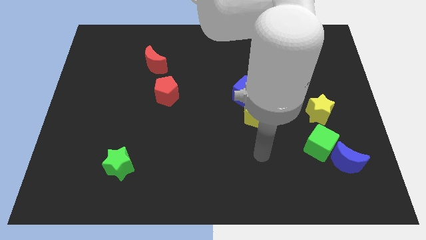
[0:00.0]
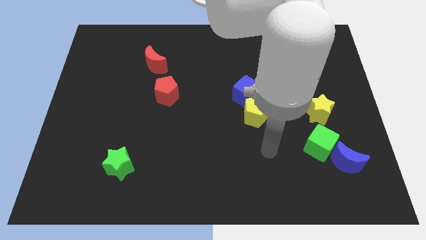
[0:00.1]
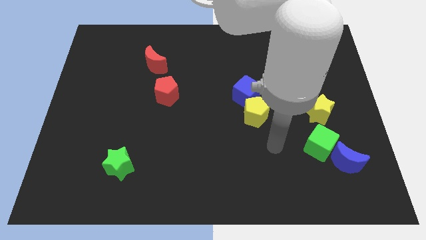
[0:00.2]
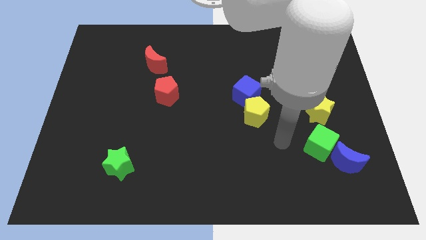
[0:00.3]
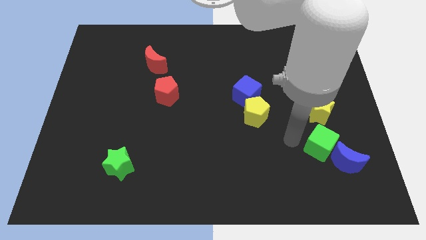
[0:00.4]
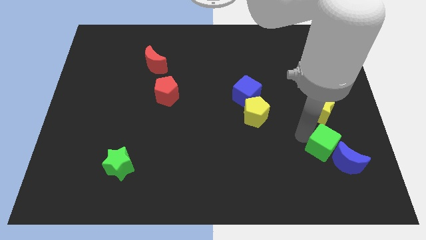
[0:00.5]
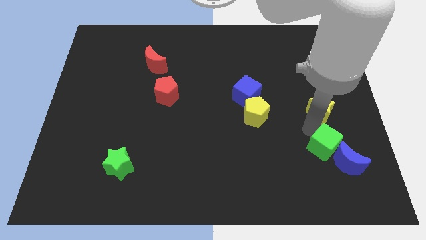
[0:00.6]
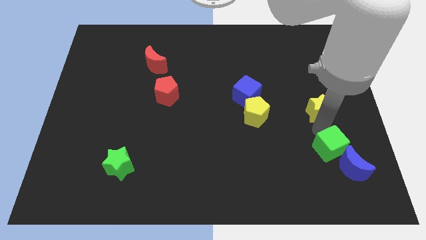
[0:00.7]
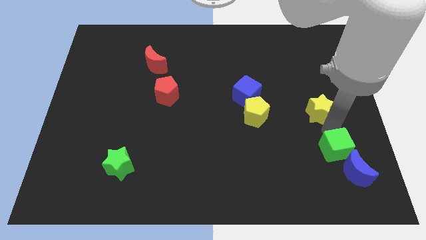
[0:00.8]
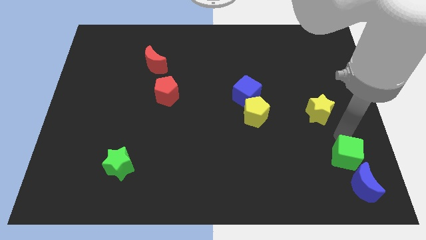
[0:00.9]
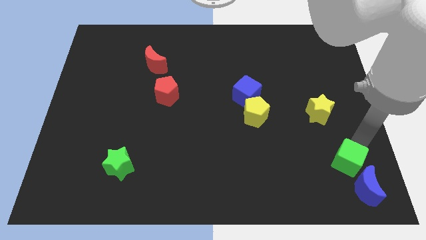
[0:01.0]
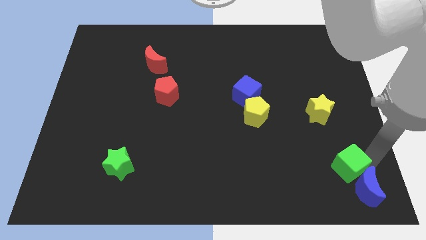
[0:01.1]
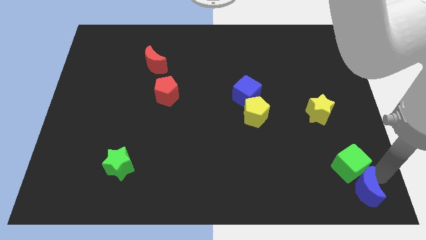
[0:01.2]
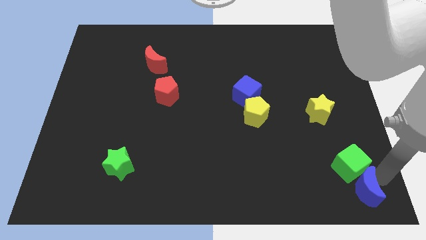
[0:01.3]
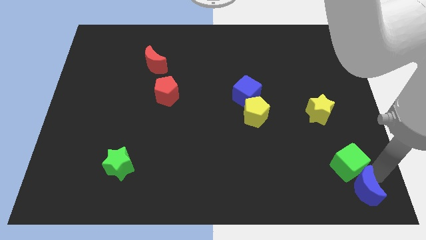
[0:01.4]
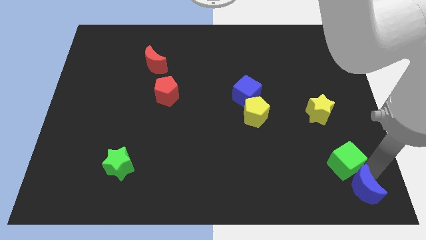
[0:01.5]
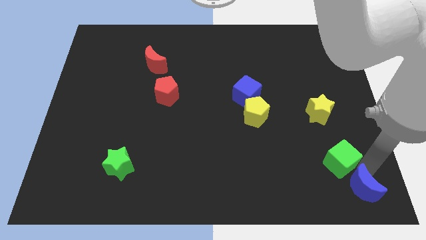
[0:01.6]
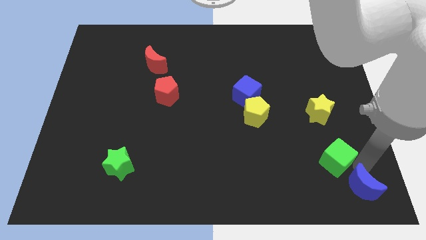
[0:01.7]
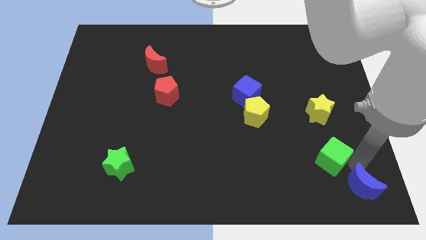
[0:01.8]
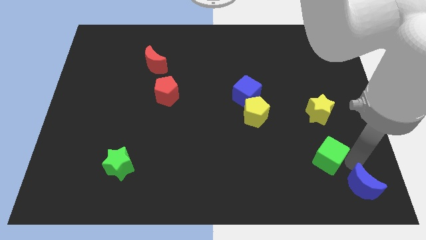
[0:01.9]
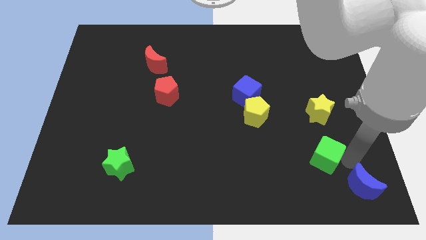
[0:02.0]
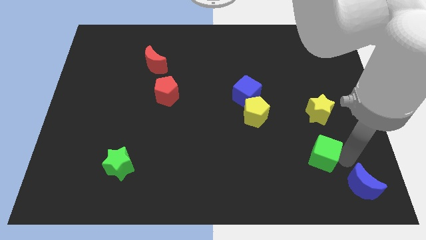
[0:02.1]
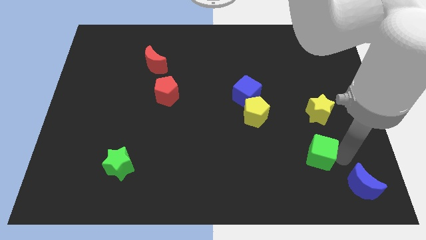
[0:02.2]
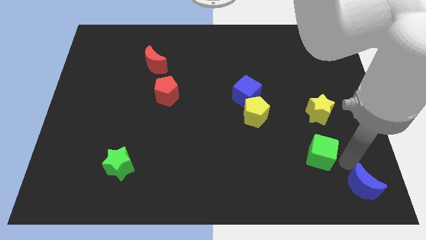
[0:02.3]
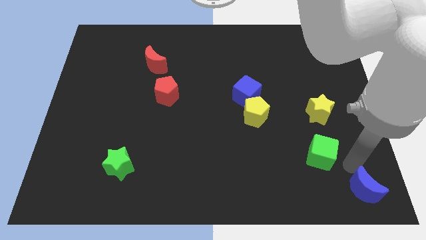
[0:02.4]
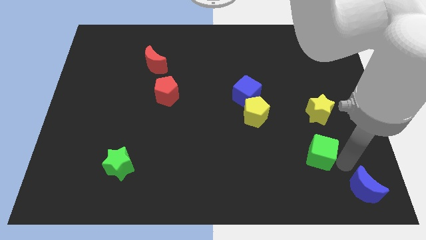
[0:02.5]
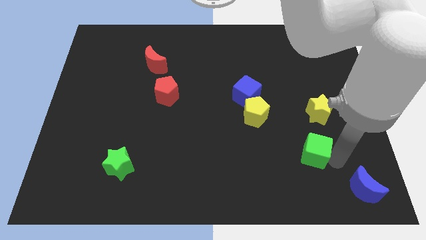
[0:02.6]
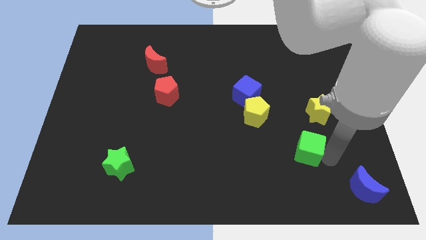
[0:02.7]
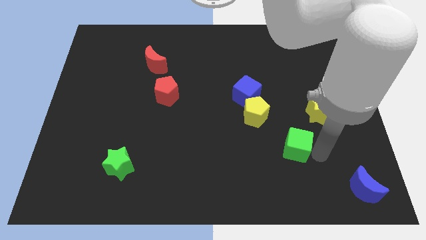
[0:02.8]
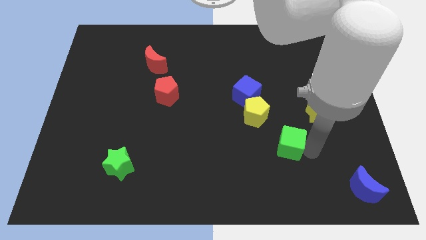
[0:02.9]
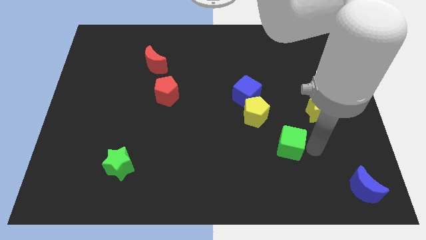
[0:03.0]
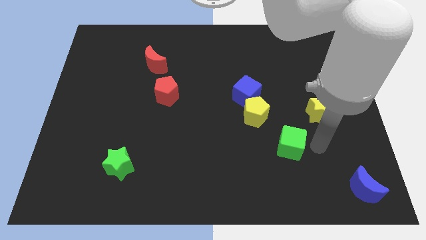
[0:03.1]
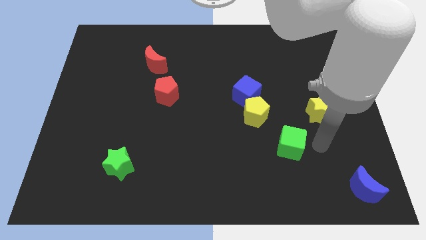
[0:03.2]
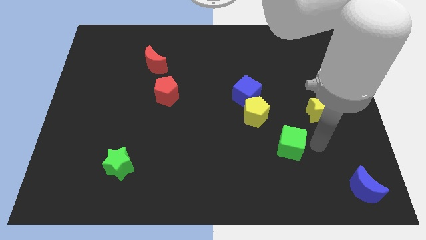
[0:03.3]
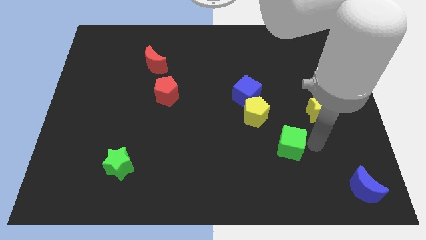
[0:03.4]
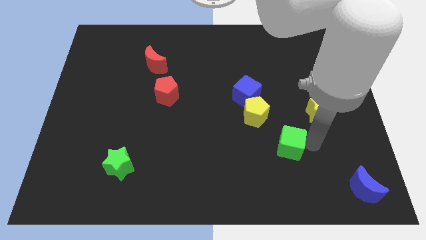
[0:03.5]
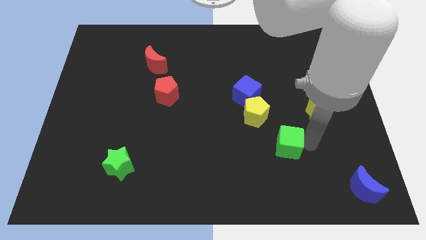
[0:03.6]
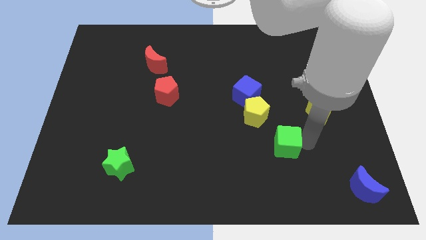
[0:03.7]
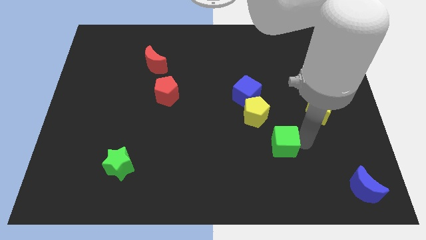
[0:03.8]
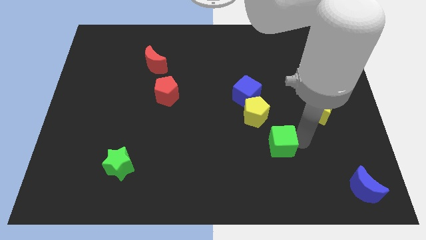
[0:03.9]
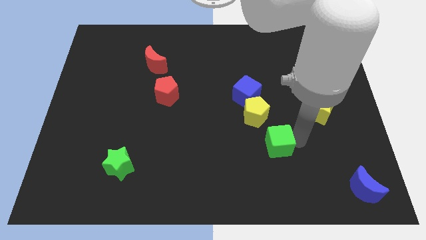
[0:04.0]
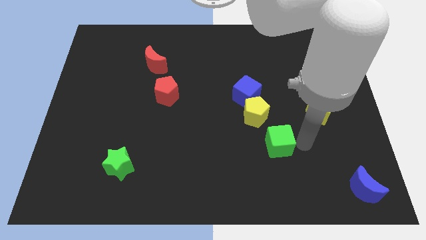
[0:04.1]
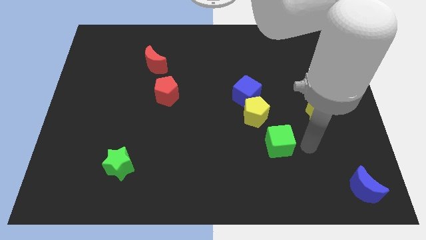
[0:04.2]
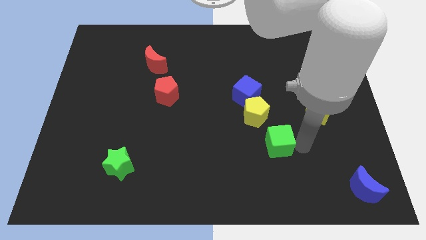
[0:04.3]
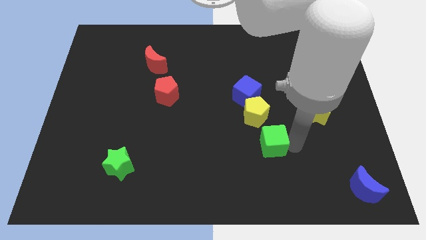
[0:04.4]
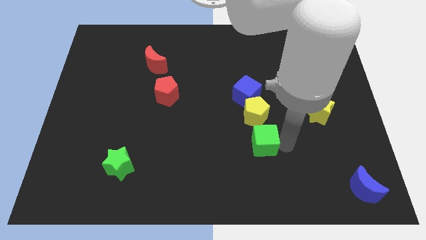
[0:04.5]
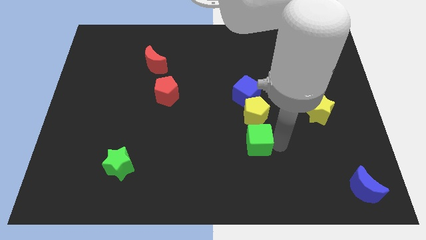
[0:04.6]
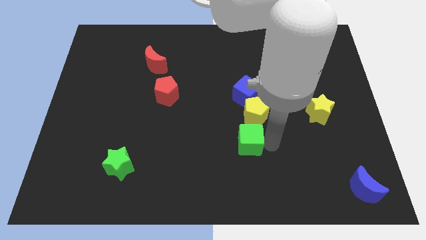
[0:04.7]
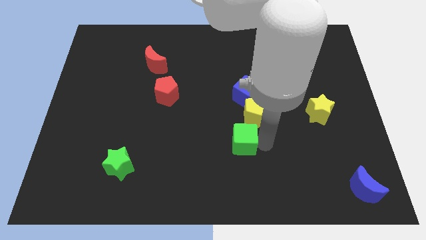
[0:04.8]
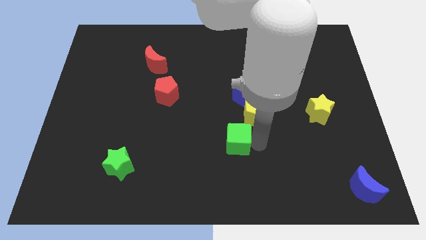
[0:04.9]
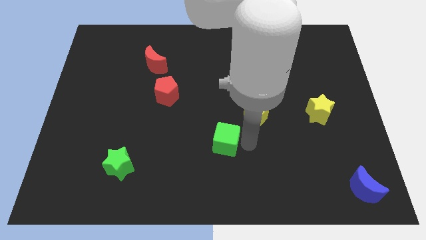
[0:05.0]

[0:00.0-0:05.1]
push the green cube to the left

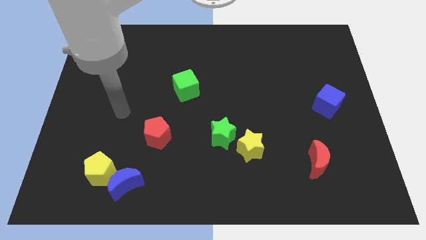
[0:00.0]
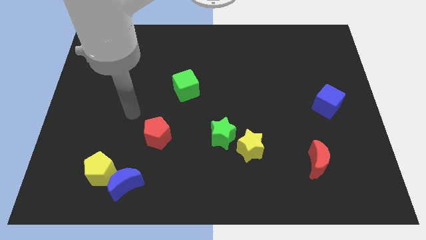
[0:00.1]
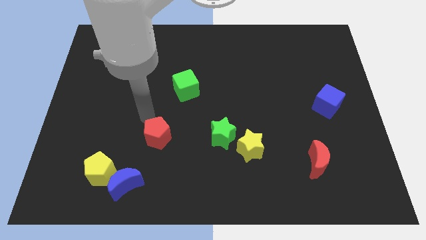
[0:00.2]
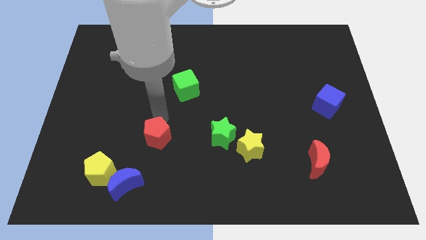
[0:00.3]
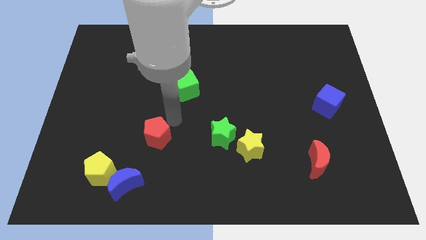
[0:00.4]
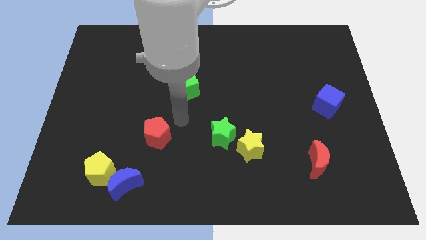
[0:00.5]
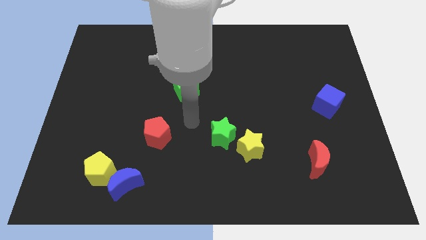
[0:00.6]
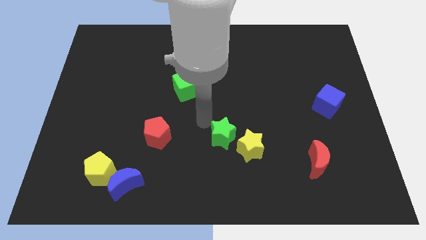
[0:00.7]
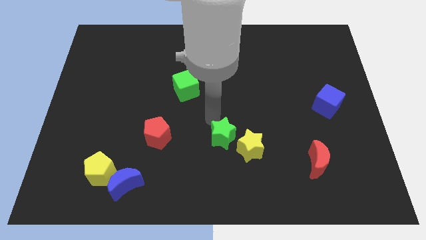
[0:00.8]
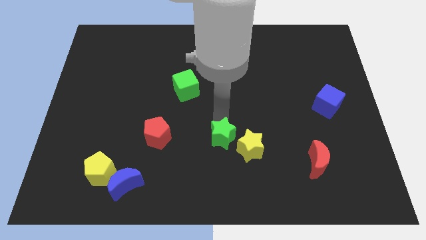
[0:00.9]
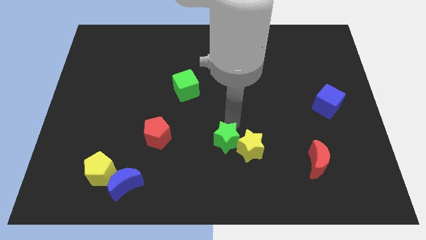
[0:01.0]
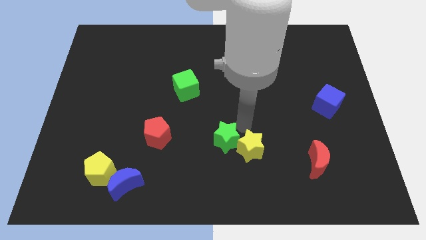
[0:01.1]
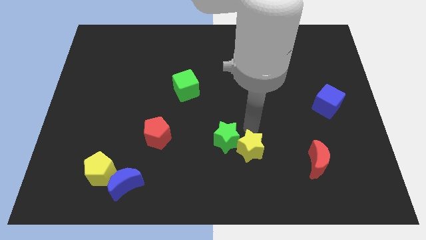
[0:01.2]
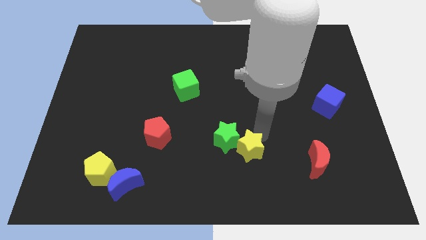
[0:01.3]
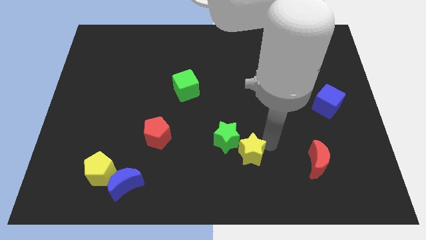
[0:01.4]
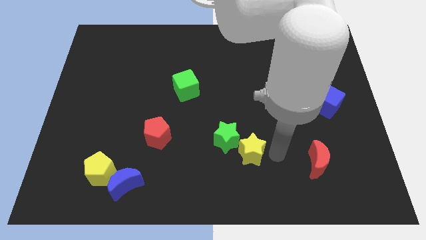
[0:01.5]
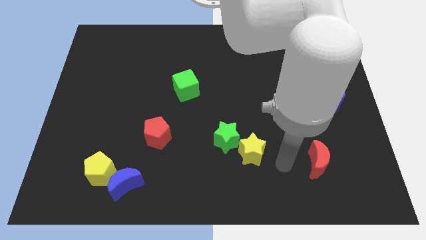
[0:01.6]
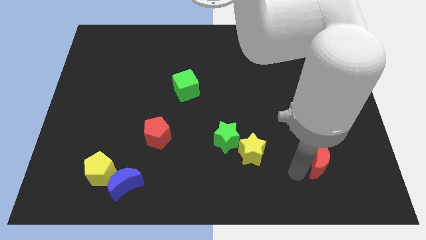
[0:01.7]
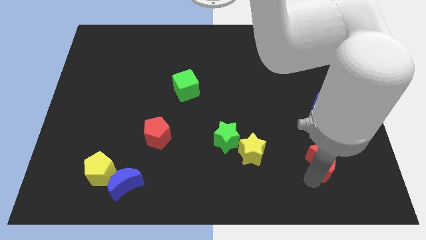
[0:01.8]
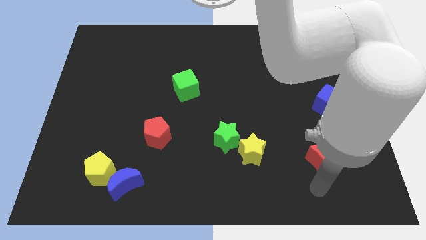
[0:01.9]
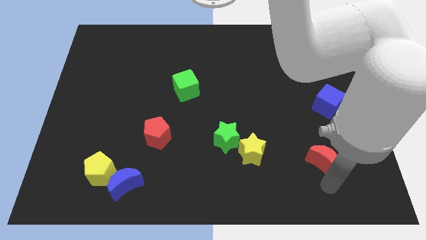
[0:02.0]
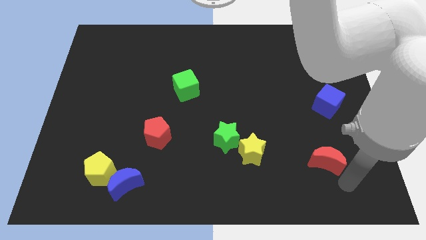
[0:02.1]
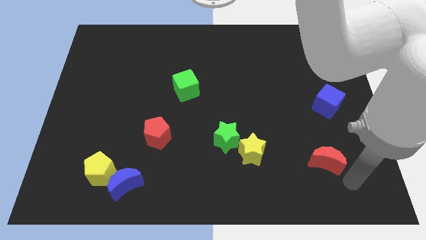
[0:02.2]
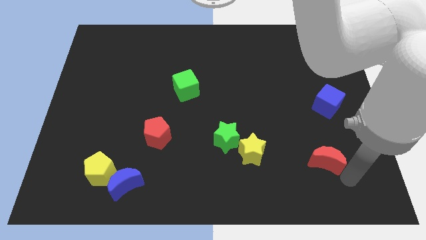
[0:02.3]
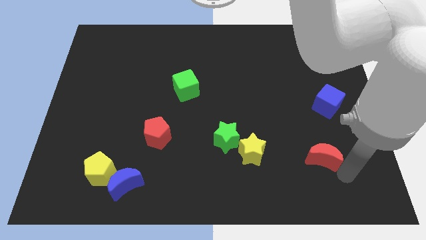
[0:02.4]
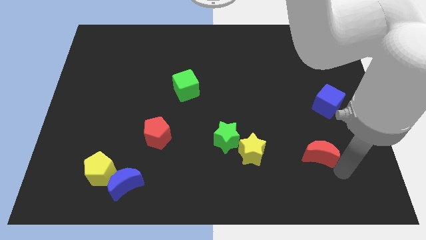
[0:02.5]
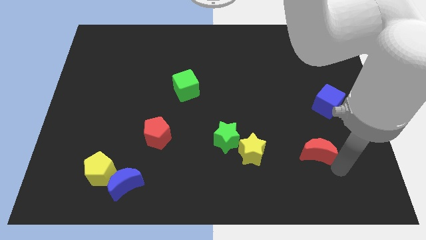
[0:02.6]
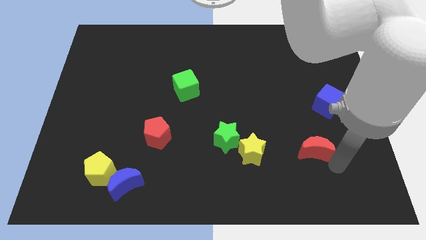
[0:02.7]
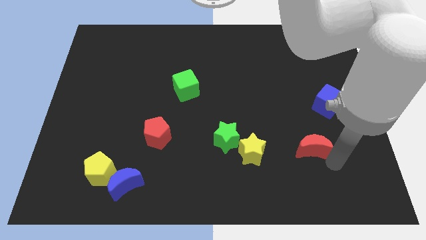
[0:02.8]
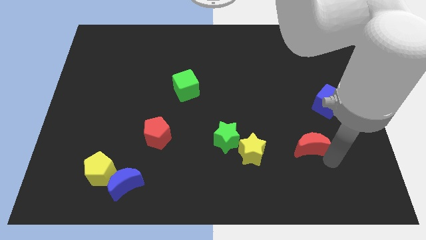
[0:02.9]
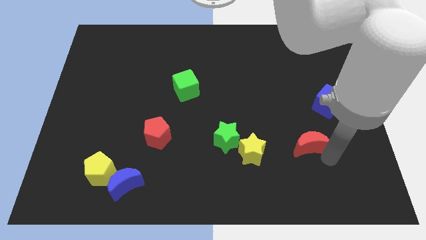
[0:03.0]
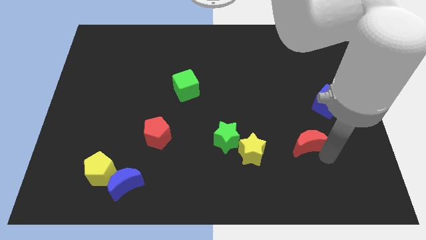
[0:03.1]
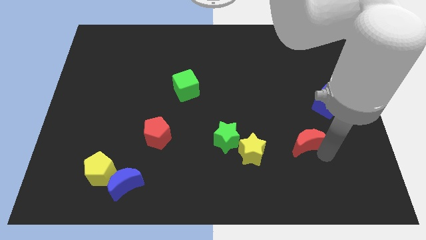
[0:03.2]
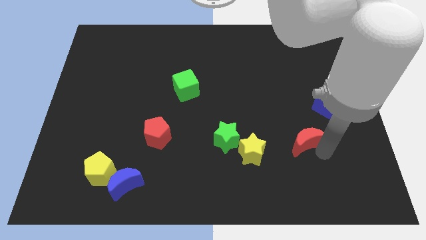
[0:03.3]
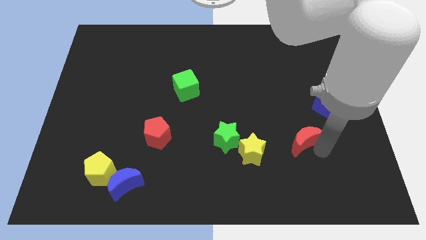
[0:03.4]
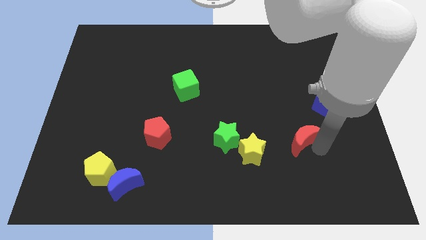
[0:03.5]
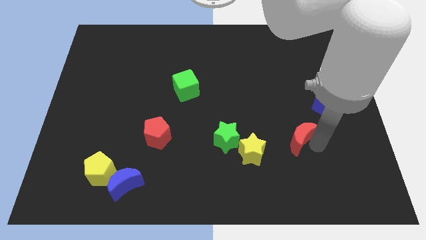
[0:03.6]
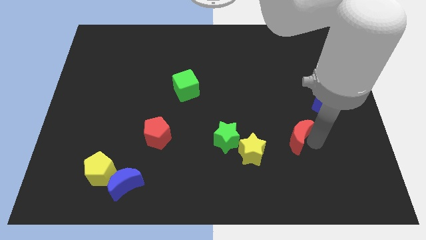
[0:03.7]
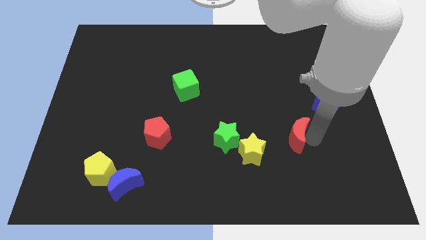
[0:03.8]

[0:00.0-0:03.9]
slide the red moon upwards and then left a little bit
